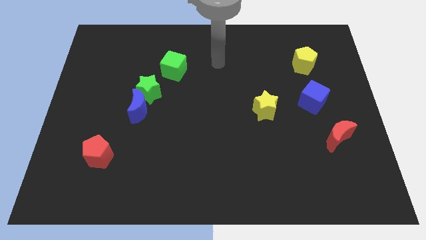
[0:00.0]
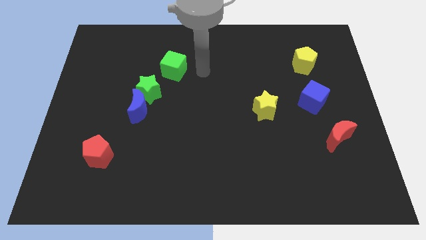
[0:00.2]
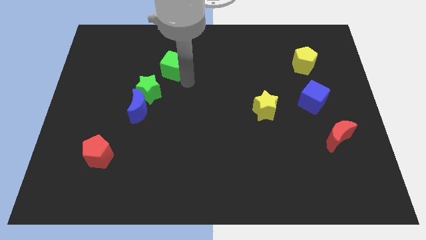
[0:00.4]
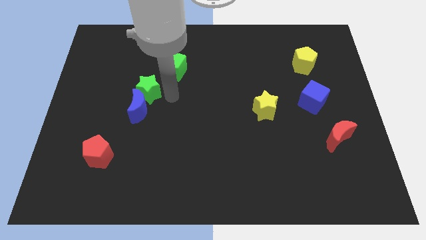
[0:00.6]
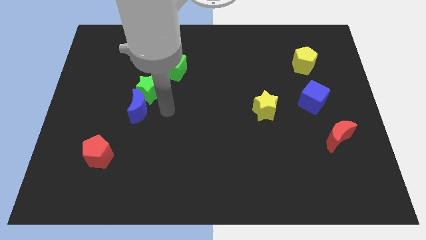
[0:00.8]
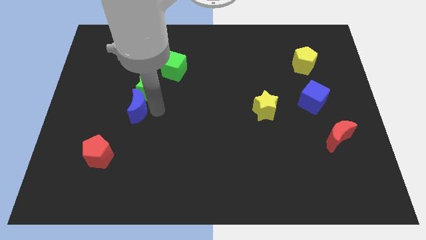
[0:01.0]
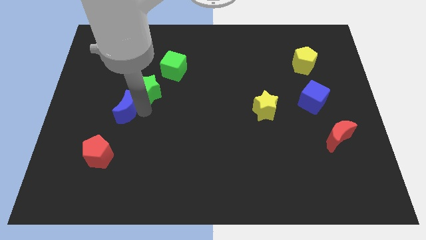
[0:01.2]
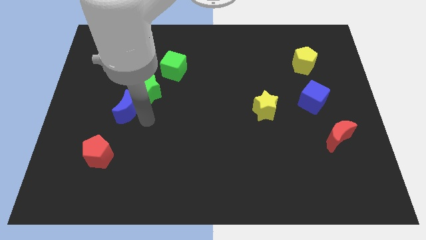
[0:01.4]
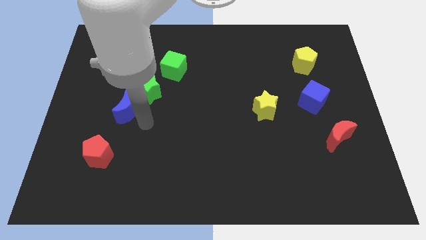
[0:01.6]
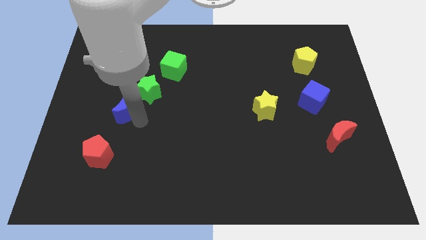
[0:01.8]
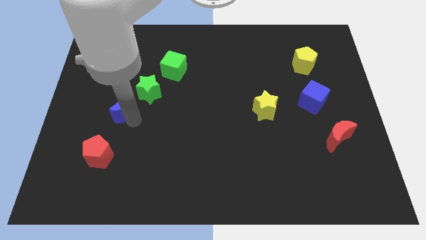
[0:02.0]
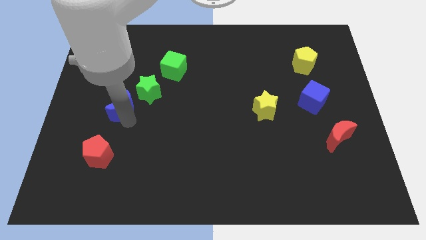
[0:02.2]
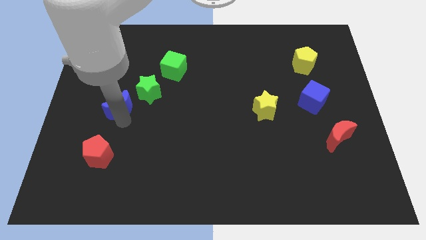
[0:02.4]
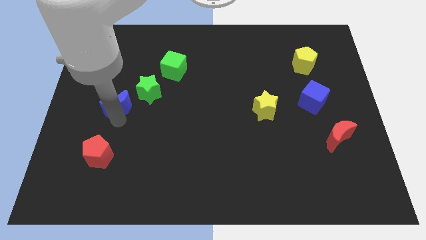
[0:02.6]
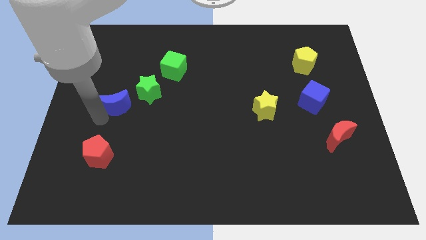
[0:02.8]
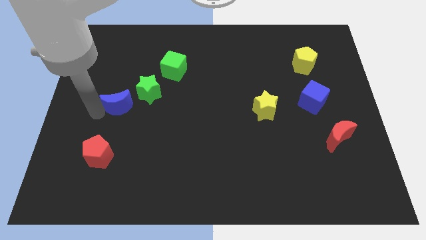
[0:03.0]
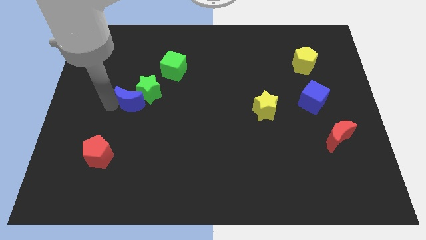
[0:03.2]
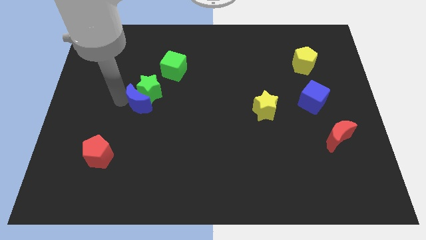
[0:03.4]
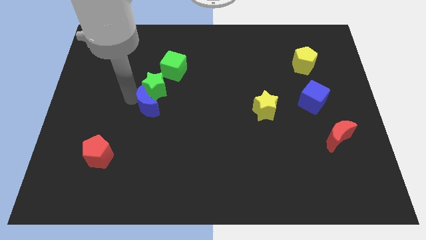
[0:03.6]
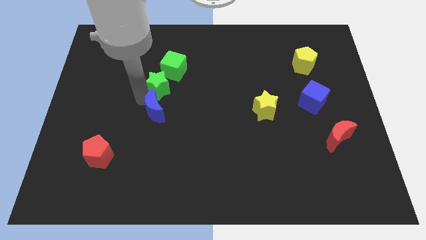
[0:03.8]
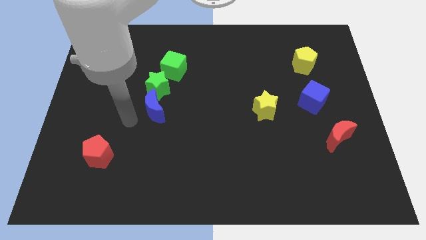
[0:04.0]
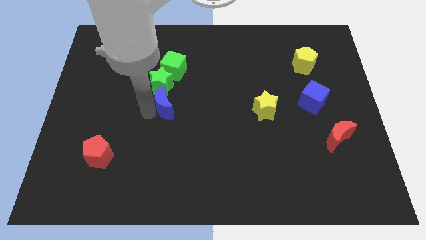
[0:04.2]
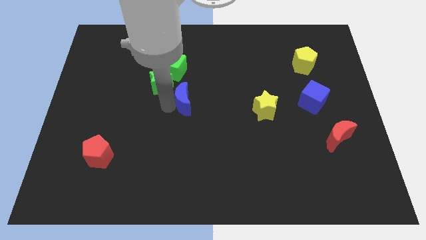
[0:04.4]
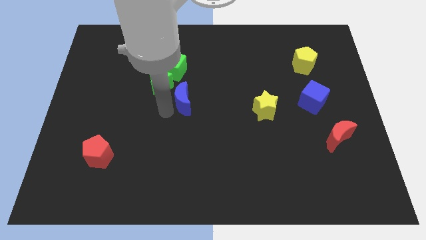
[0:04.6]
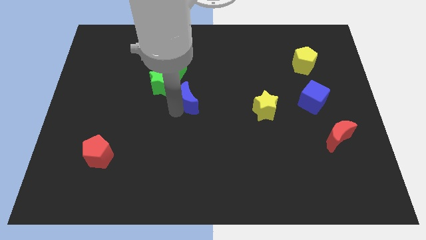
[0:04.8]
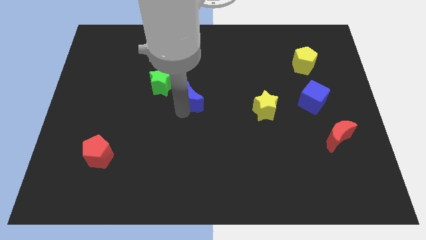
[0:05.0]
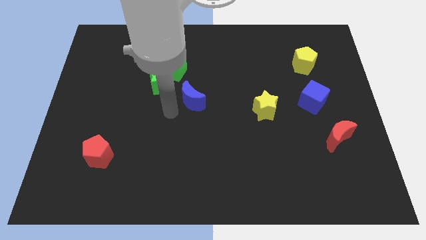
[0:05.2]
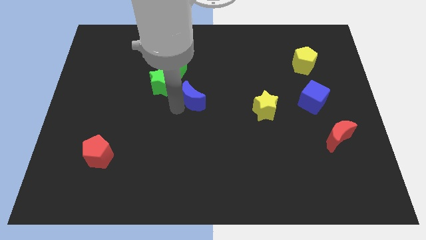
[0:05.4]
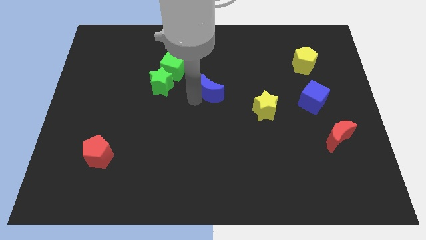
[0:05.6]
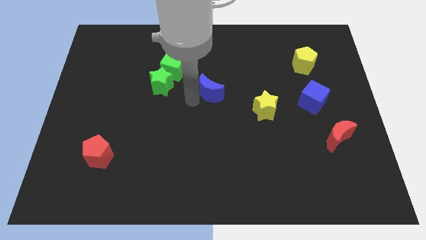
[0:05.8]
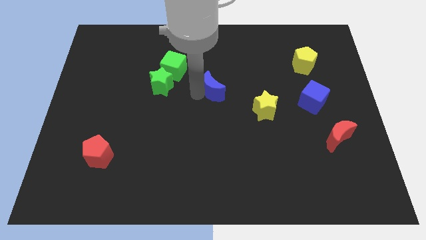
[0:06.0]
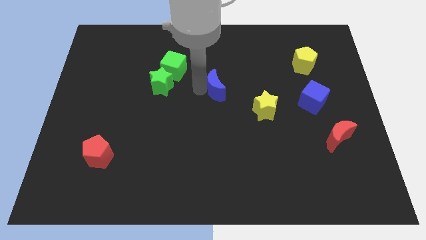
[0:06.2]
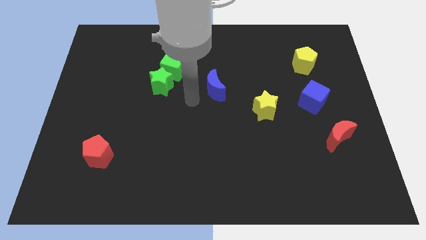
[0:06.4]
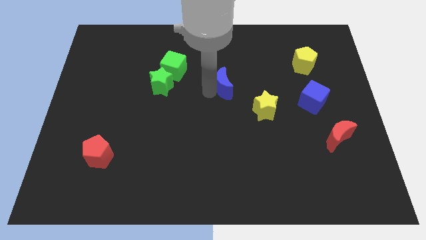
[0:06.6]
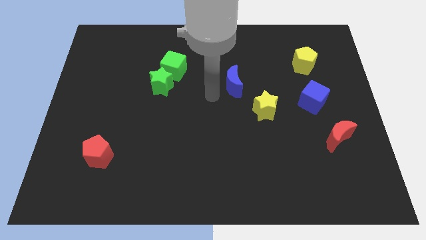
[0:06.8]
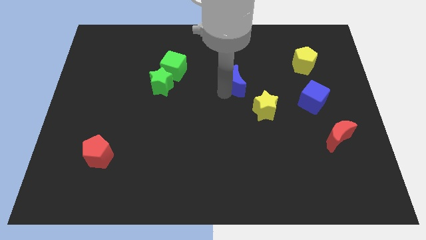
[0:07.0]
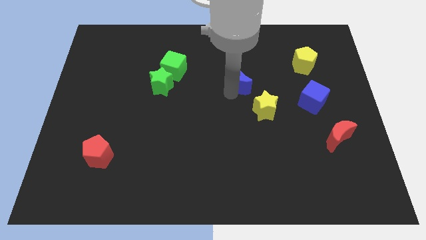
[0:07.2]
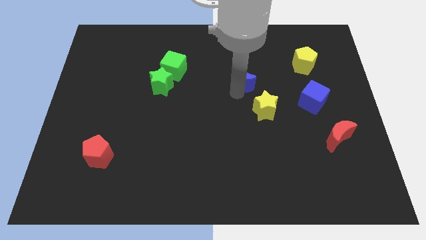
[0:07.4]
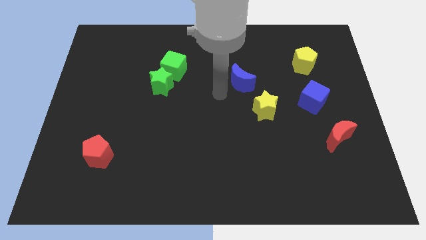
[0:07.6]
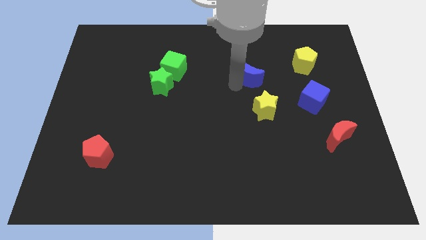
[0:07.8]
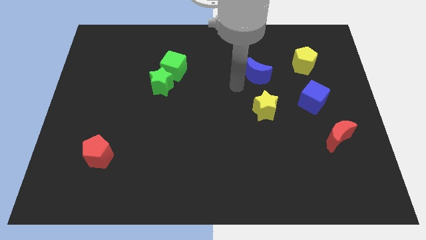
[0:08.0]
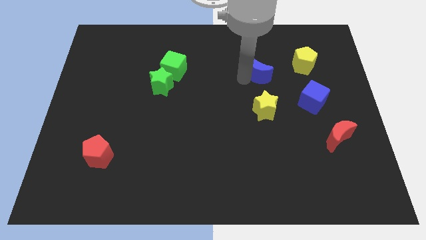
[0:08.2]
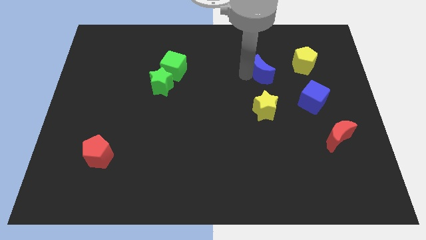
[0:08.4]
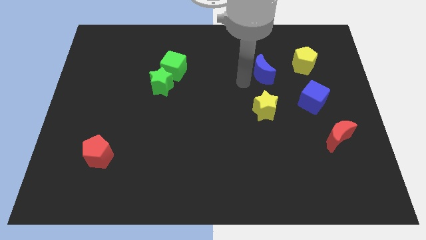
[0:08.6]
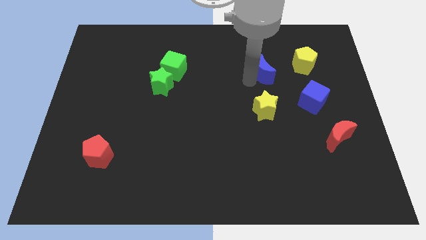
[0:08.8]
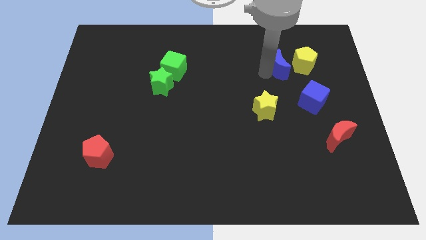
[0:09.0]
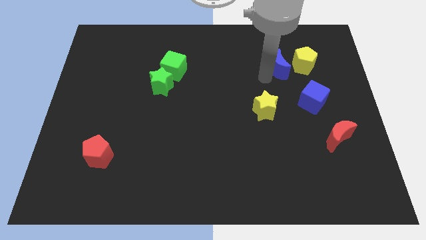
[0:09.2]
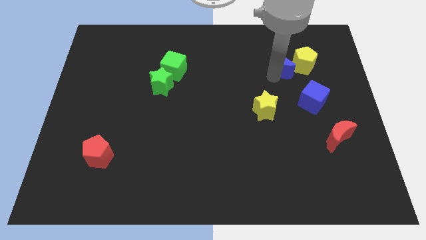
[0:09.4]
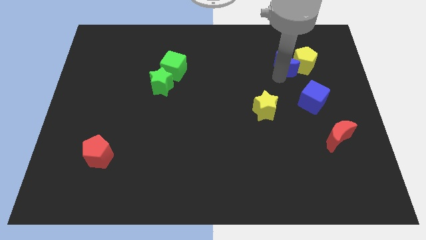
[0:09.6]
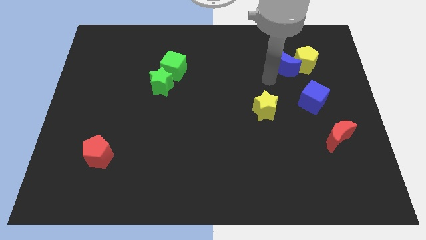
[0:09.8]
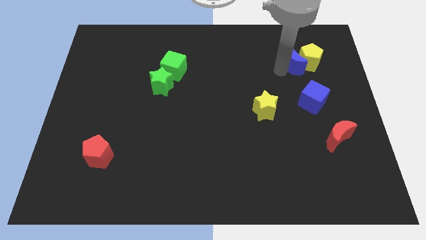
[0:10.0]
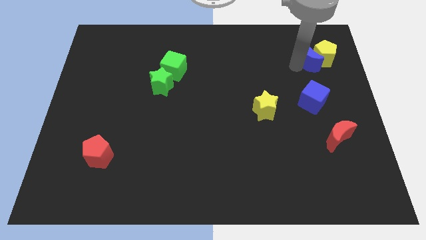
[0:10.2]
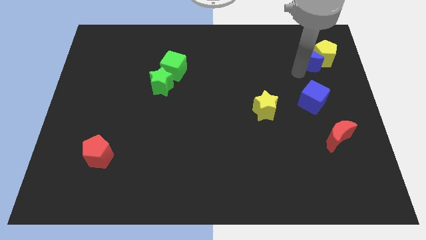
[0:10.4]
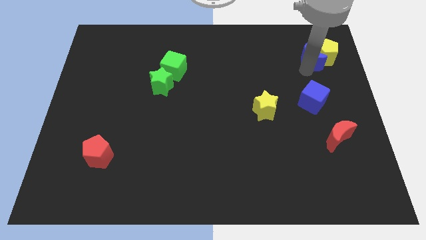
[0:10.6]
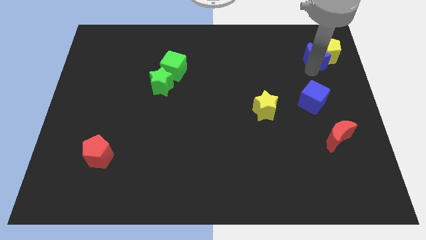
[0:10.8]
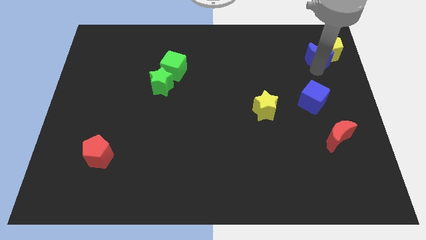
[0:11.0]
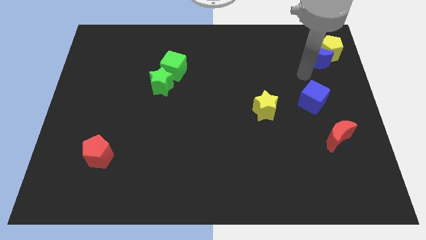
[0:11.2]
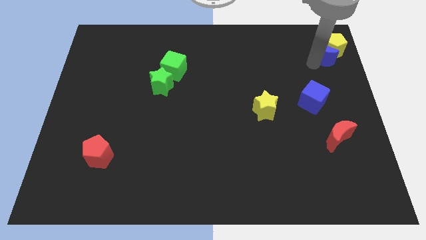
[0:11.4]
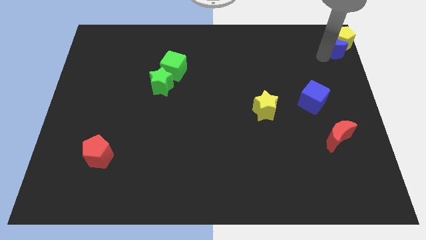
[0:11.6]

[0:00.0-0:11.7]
slide the blue moon to the upper right corner

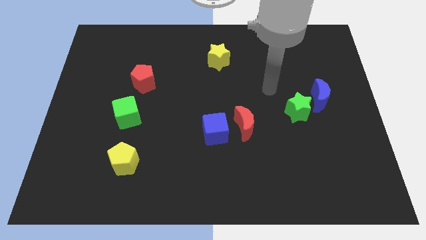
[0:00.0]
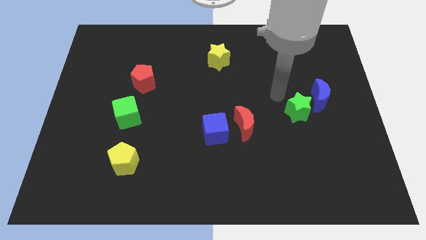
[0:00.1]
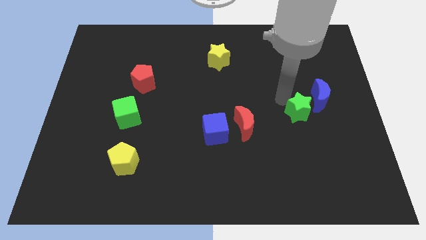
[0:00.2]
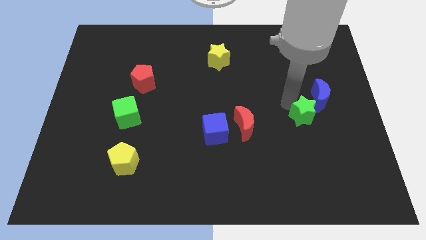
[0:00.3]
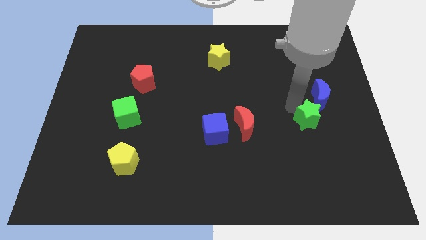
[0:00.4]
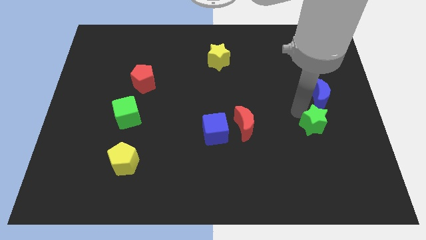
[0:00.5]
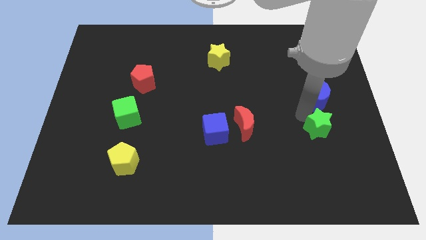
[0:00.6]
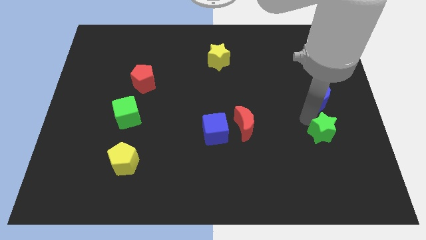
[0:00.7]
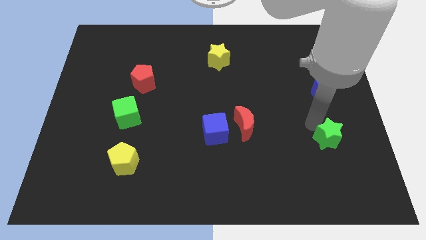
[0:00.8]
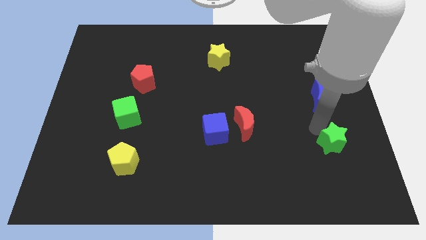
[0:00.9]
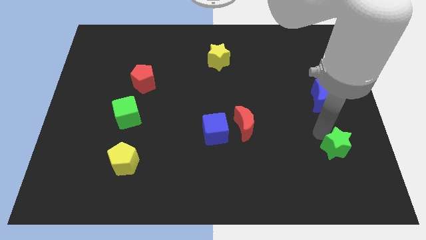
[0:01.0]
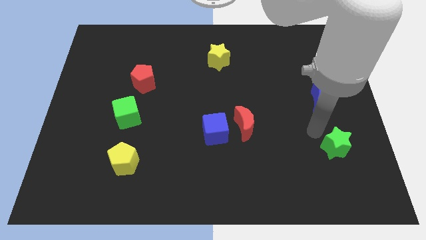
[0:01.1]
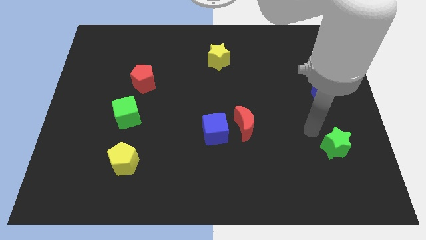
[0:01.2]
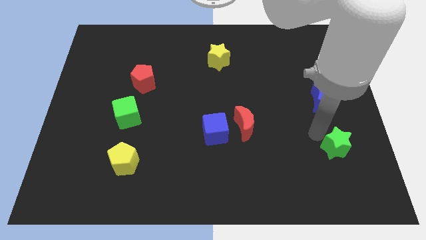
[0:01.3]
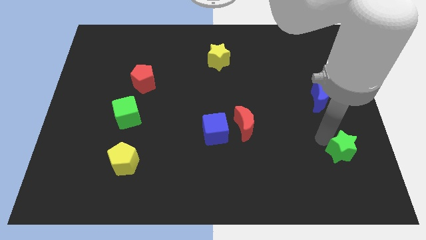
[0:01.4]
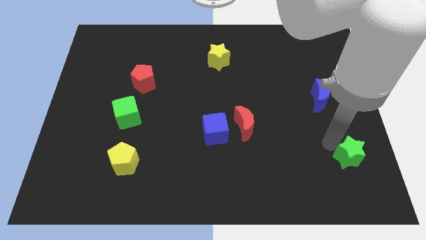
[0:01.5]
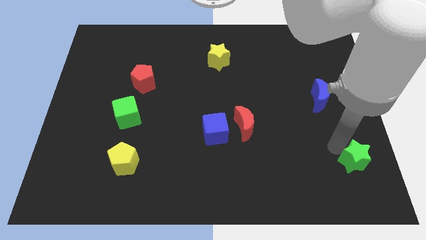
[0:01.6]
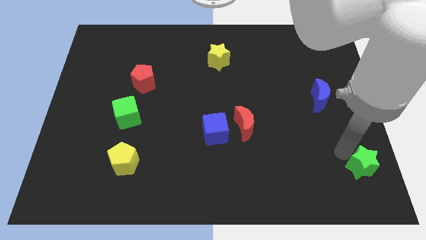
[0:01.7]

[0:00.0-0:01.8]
slide the green star to the lower right corner
